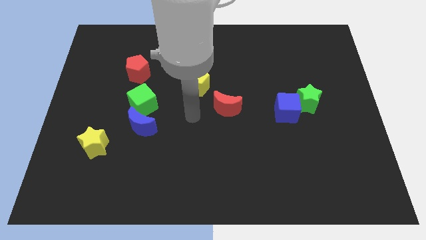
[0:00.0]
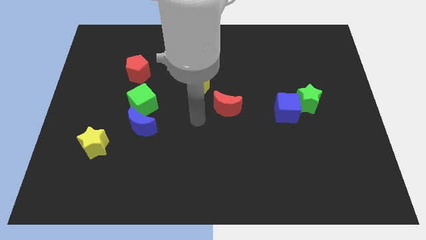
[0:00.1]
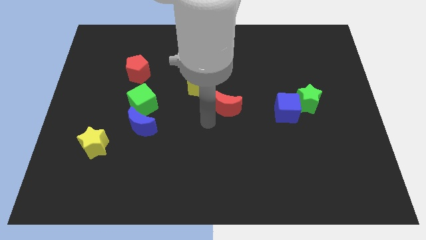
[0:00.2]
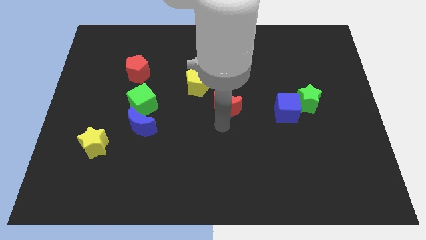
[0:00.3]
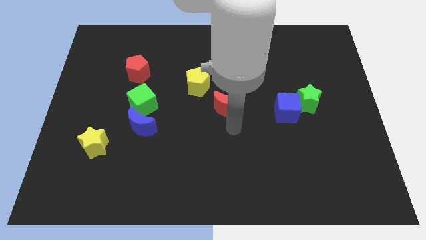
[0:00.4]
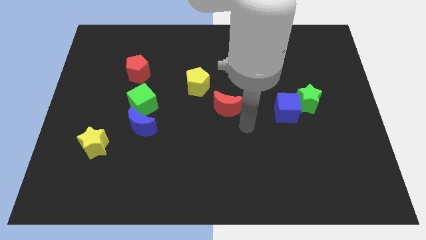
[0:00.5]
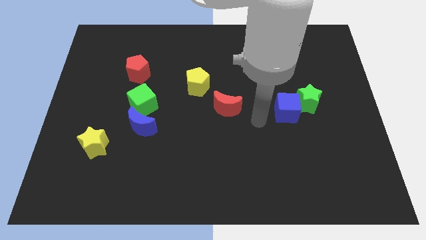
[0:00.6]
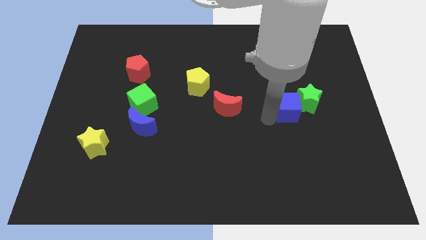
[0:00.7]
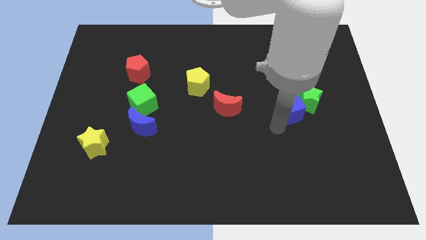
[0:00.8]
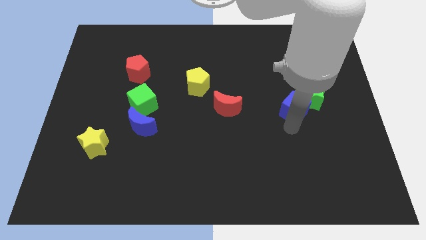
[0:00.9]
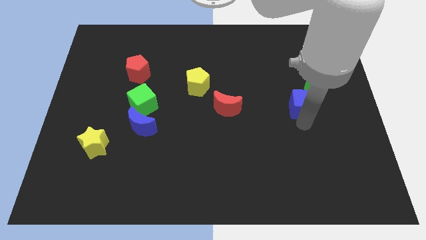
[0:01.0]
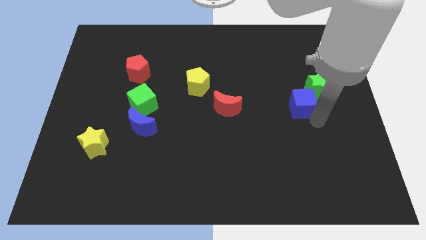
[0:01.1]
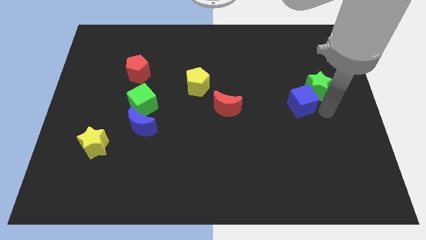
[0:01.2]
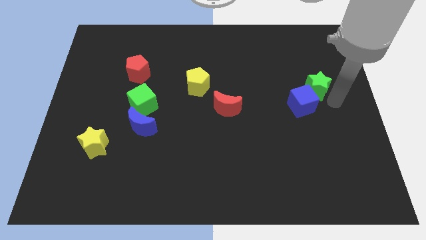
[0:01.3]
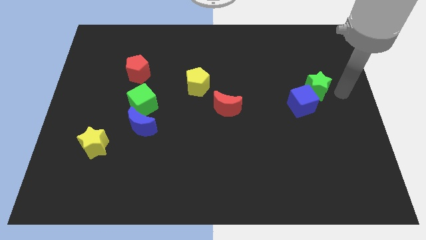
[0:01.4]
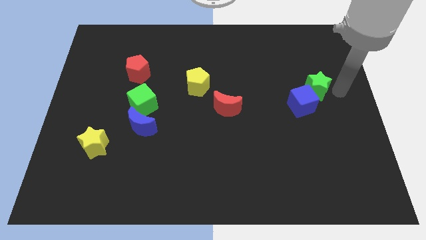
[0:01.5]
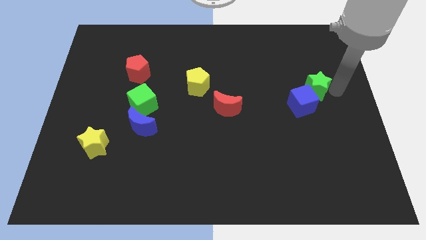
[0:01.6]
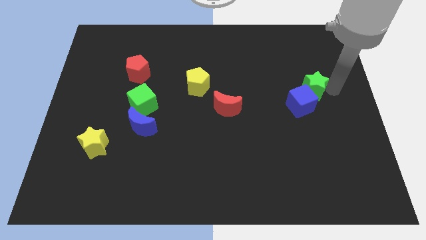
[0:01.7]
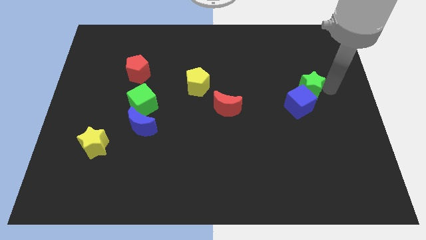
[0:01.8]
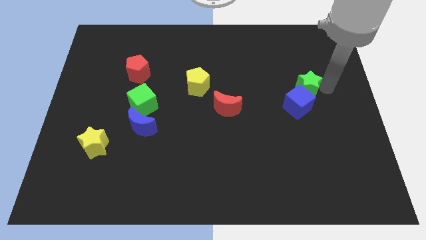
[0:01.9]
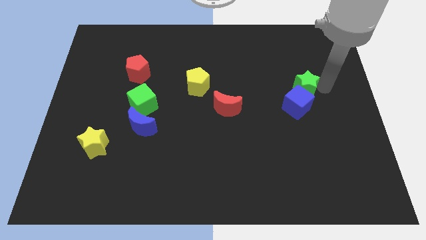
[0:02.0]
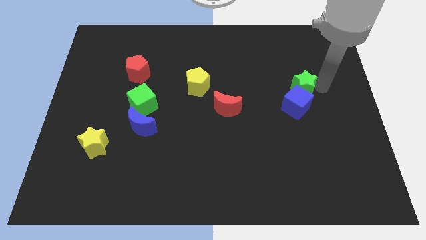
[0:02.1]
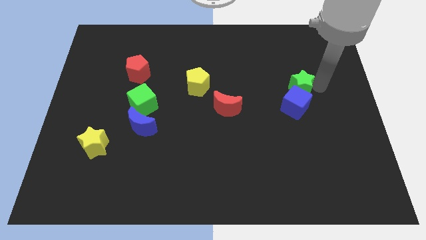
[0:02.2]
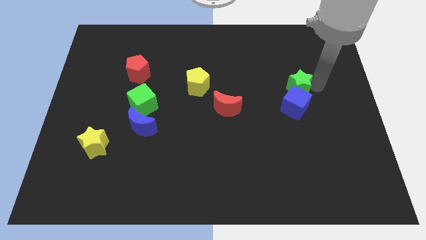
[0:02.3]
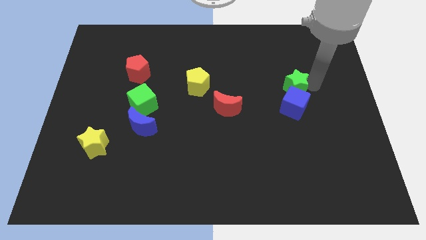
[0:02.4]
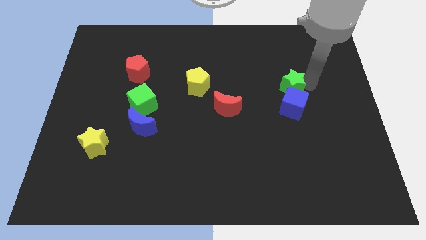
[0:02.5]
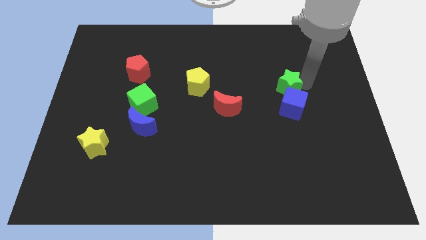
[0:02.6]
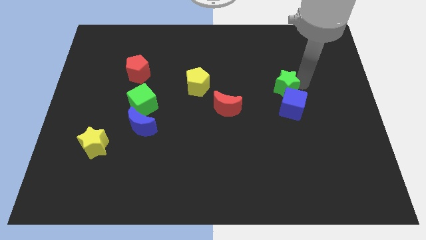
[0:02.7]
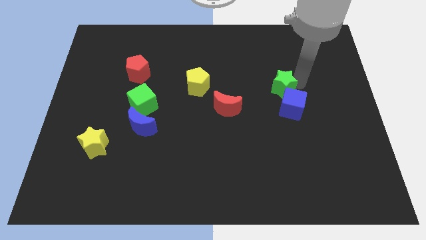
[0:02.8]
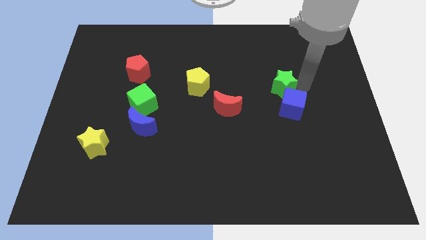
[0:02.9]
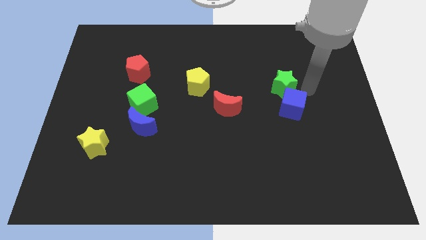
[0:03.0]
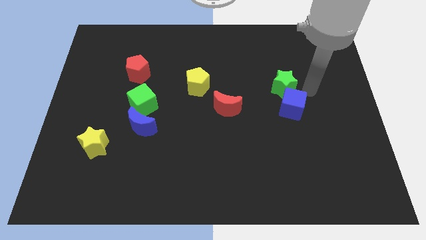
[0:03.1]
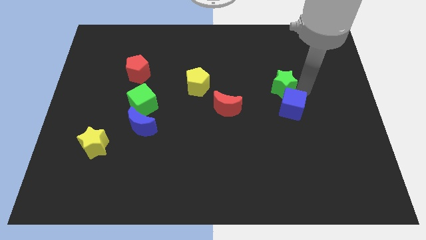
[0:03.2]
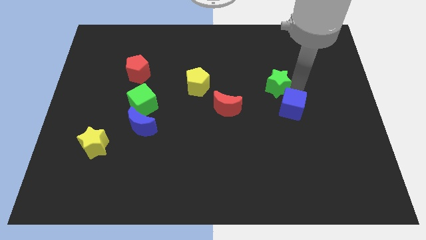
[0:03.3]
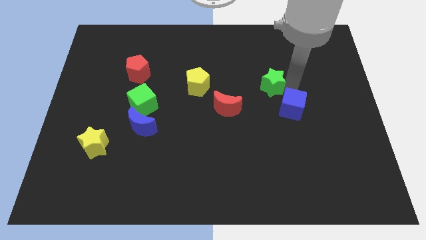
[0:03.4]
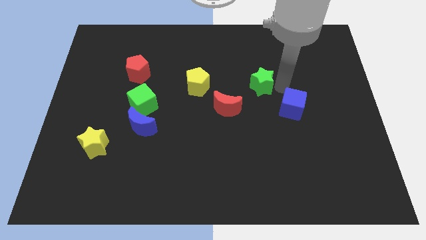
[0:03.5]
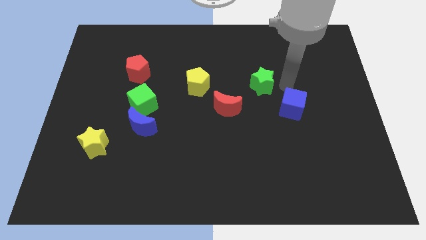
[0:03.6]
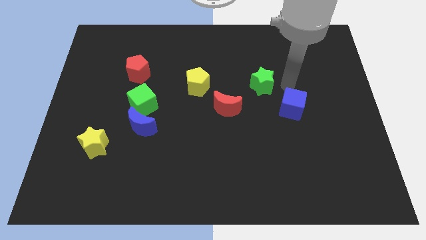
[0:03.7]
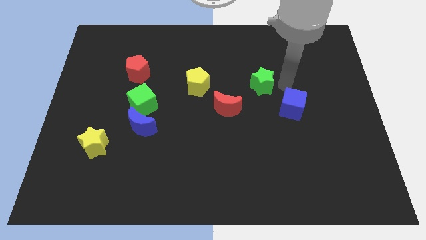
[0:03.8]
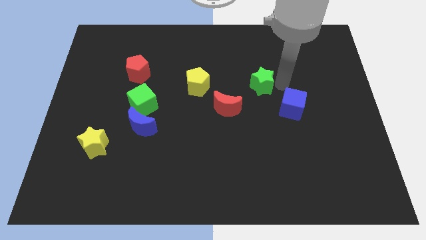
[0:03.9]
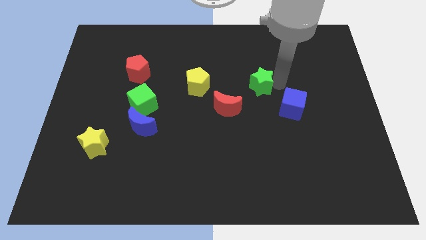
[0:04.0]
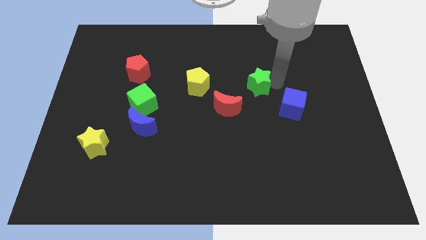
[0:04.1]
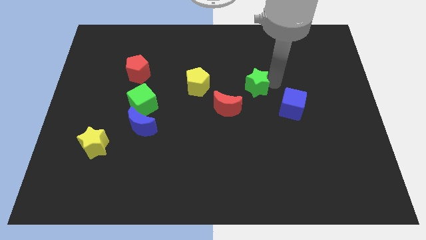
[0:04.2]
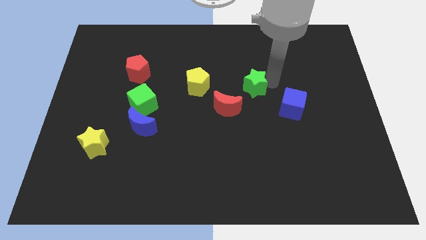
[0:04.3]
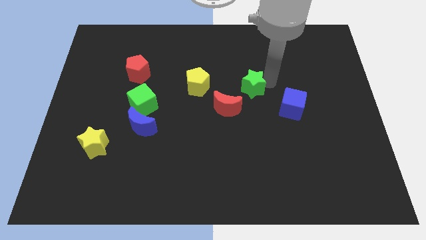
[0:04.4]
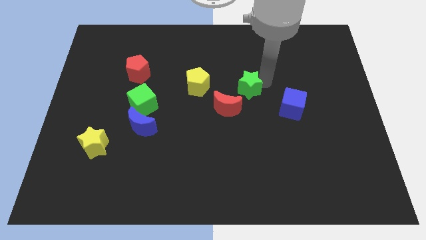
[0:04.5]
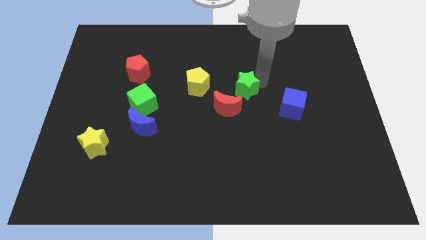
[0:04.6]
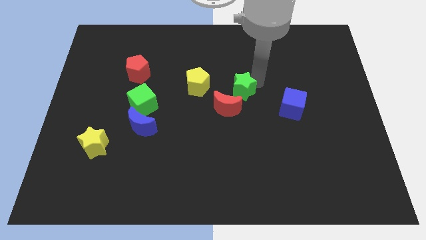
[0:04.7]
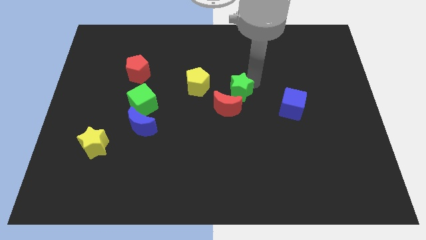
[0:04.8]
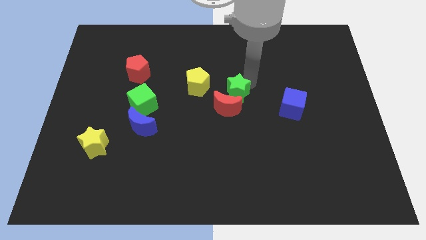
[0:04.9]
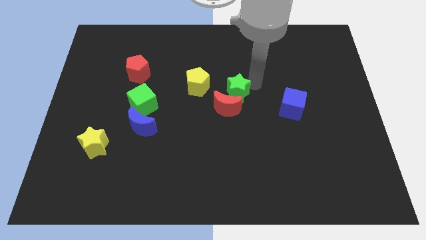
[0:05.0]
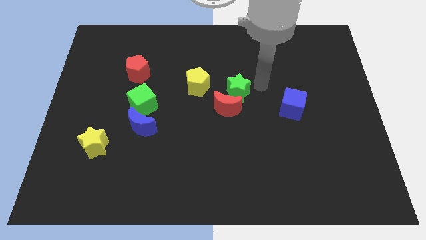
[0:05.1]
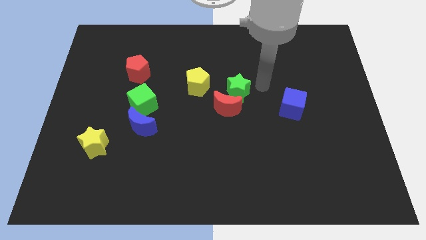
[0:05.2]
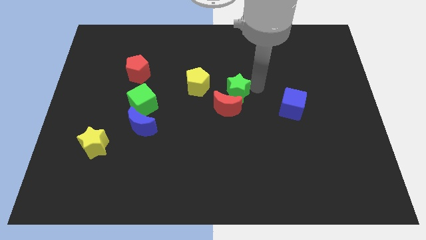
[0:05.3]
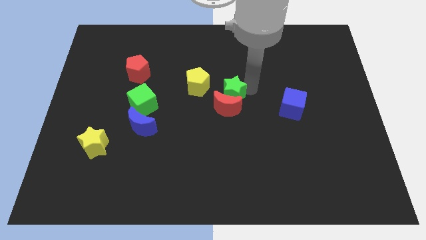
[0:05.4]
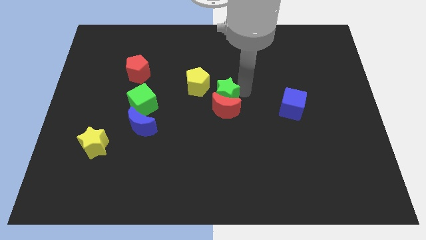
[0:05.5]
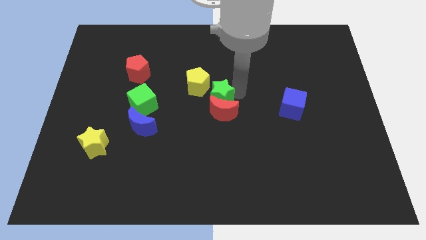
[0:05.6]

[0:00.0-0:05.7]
push the green star to the left

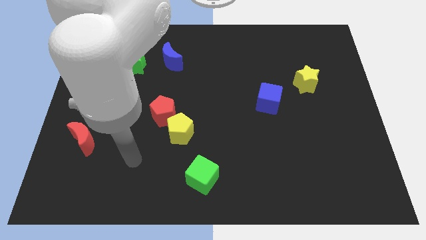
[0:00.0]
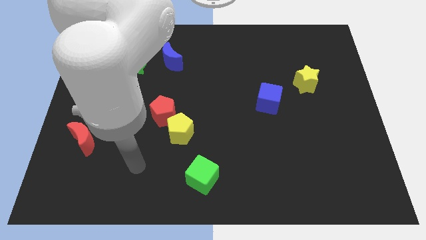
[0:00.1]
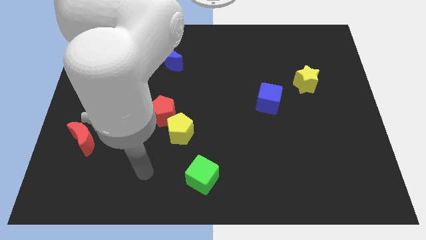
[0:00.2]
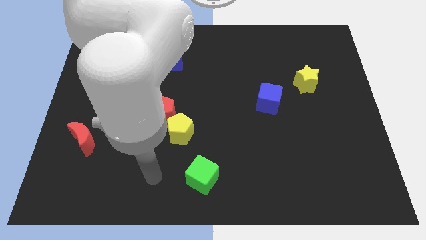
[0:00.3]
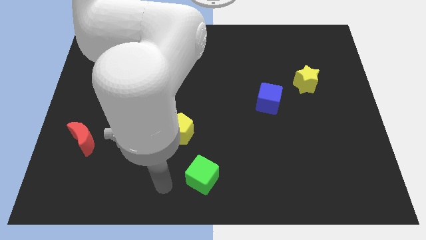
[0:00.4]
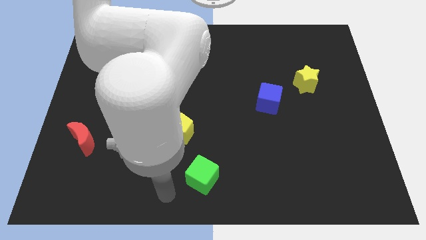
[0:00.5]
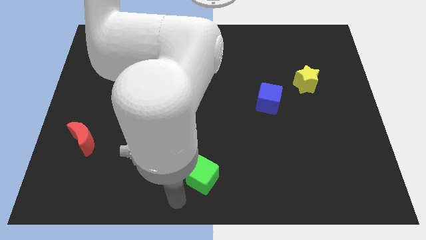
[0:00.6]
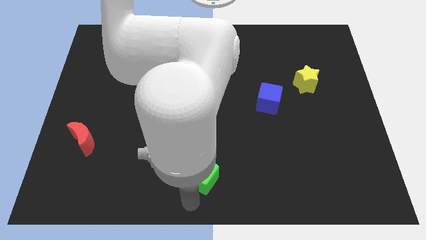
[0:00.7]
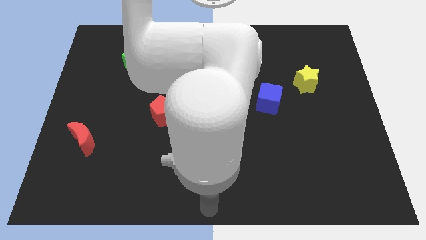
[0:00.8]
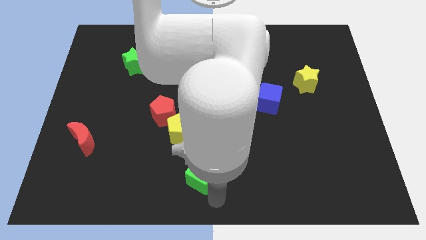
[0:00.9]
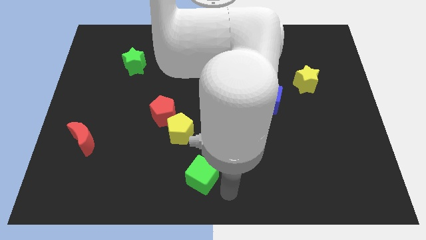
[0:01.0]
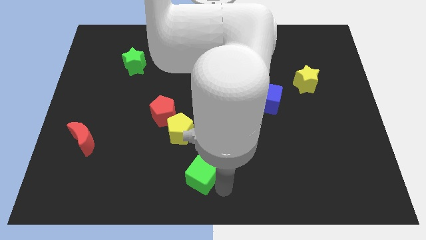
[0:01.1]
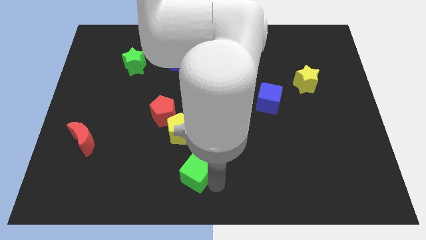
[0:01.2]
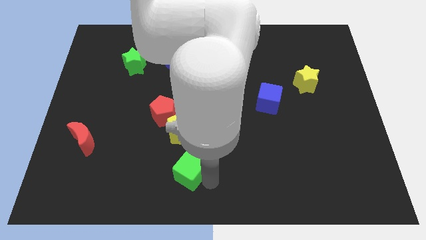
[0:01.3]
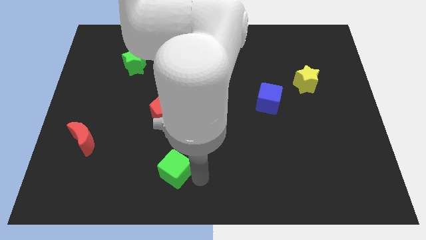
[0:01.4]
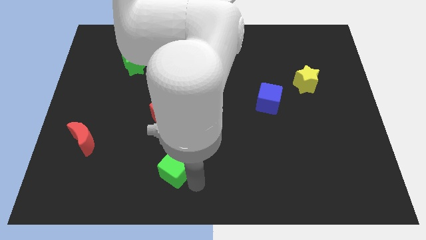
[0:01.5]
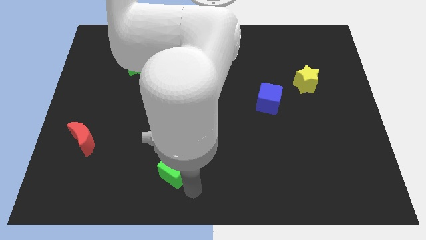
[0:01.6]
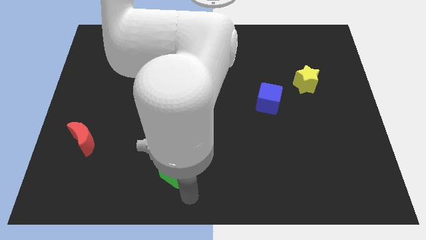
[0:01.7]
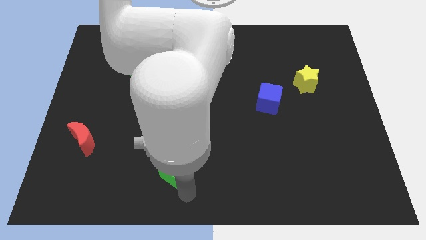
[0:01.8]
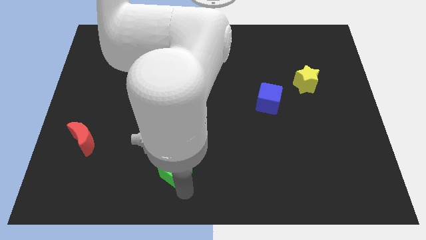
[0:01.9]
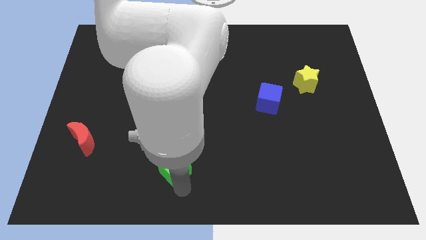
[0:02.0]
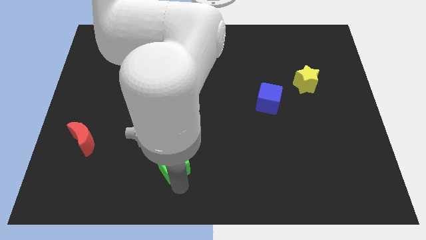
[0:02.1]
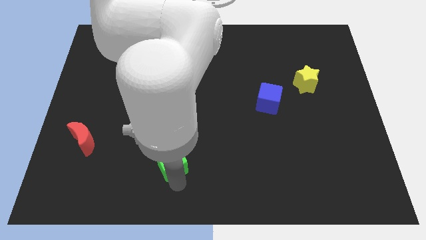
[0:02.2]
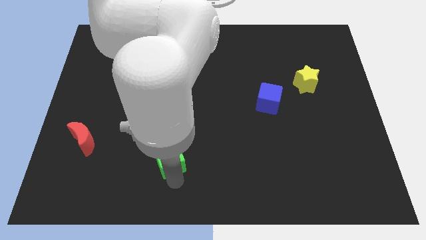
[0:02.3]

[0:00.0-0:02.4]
move the green cube up and to the left somewhat
